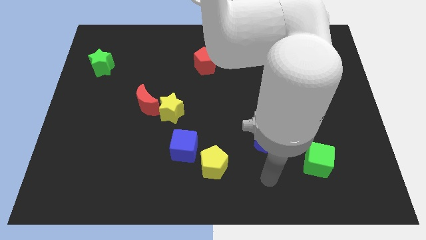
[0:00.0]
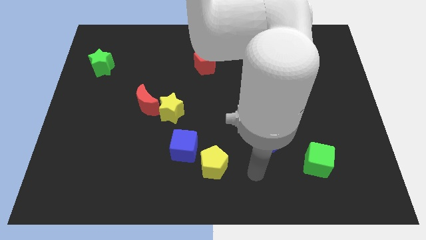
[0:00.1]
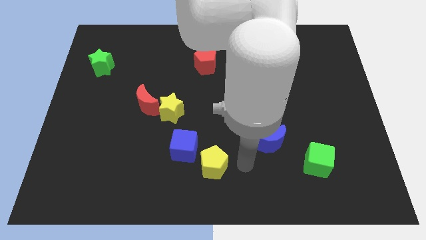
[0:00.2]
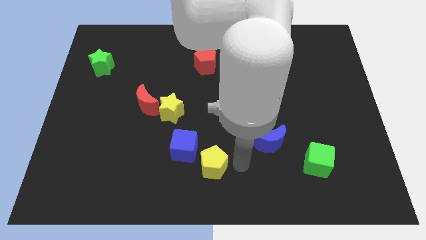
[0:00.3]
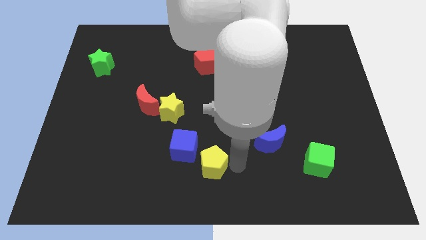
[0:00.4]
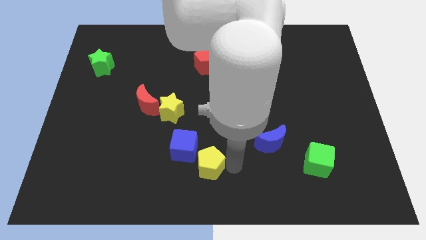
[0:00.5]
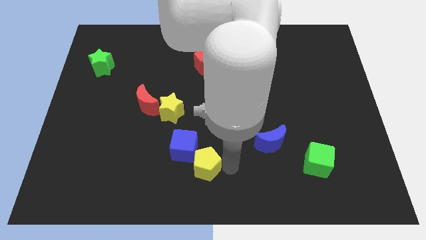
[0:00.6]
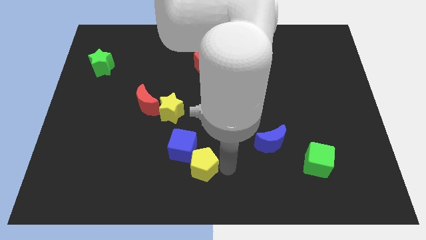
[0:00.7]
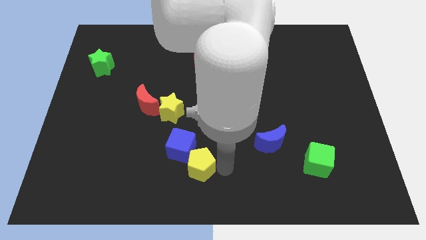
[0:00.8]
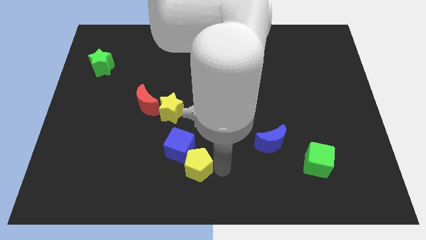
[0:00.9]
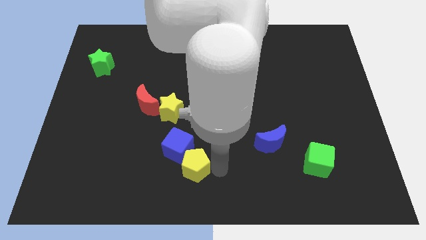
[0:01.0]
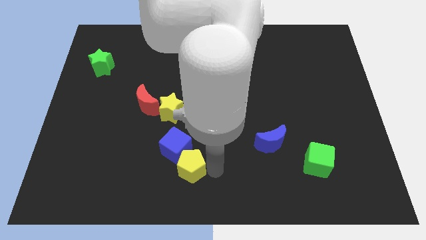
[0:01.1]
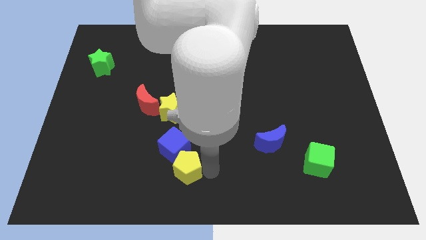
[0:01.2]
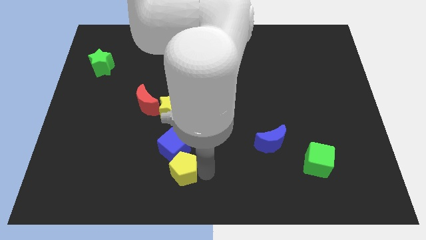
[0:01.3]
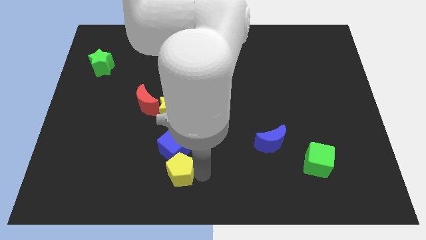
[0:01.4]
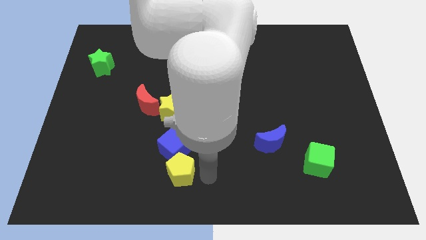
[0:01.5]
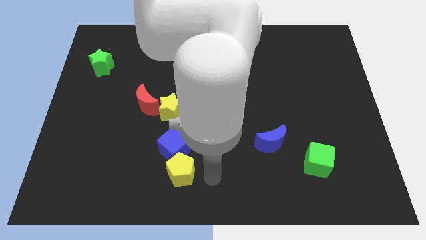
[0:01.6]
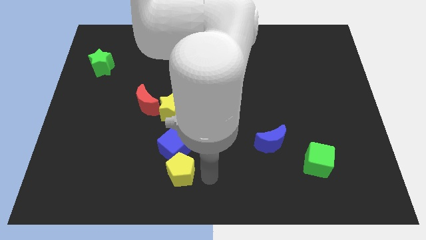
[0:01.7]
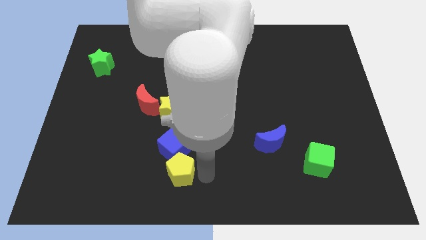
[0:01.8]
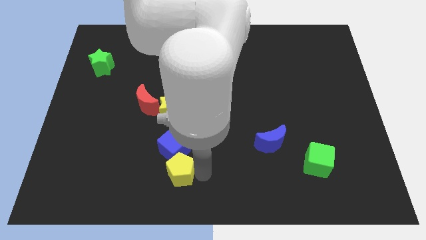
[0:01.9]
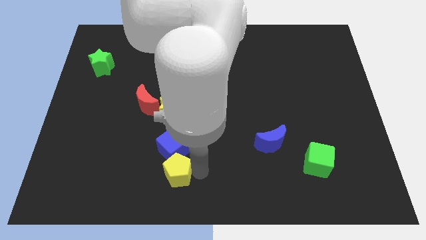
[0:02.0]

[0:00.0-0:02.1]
slightly slide the yellow pentagon left

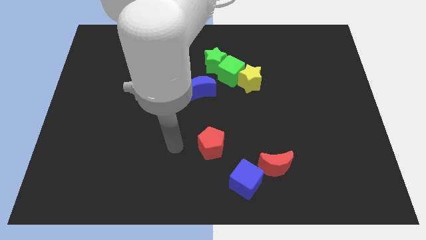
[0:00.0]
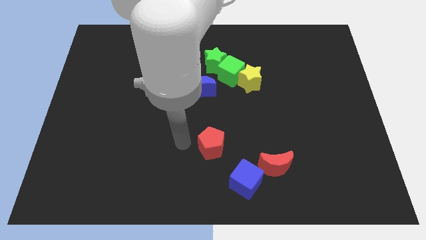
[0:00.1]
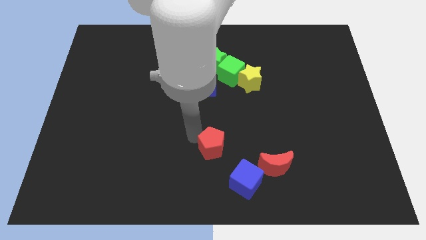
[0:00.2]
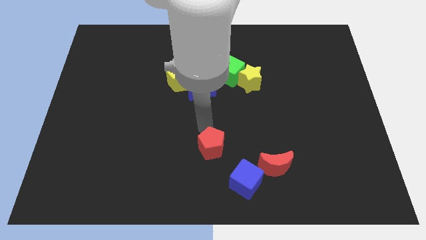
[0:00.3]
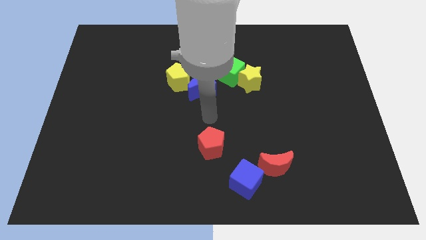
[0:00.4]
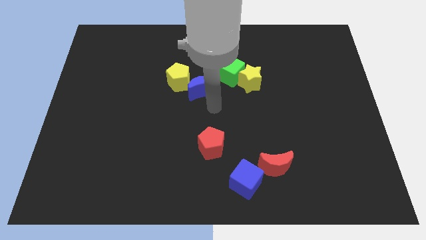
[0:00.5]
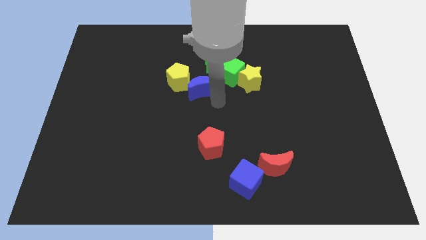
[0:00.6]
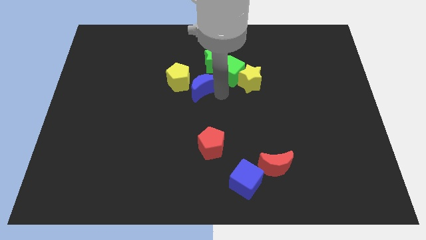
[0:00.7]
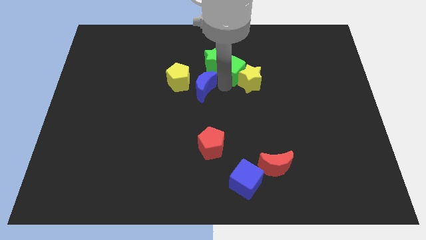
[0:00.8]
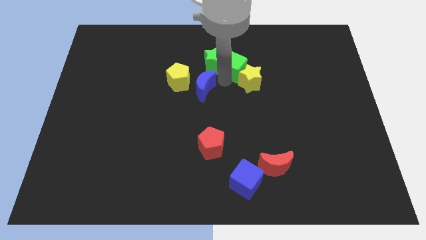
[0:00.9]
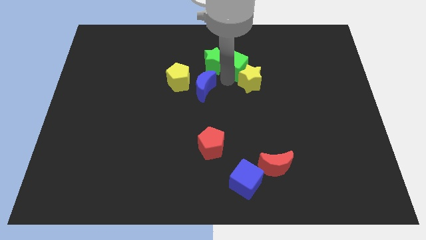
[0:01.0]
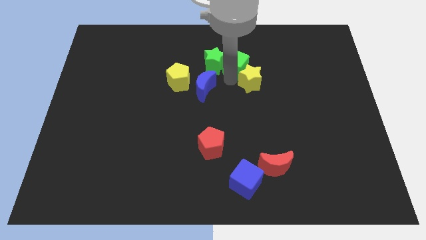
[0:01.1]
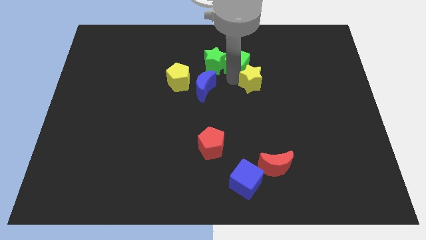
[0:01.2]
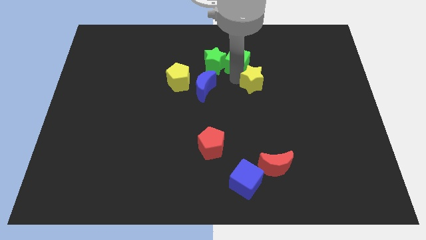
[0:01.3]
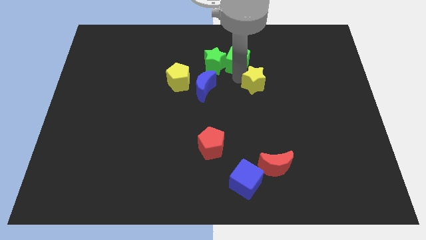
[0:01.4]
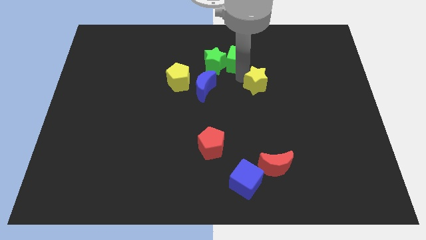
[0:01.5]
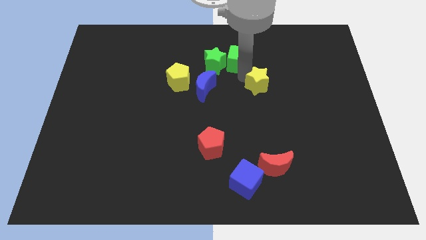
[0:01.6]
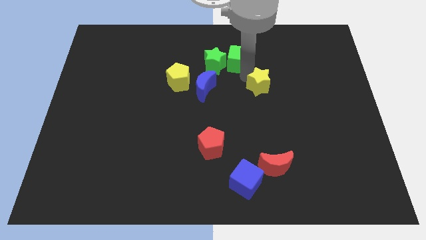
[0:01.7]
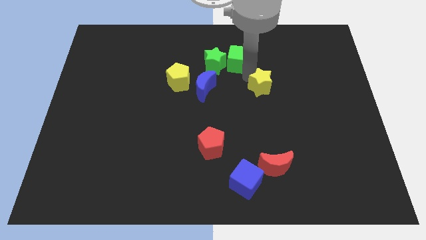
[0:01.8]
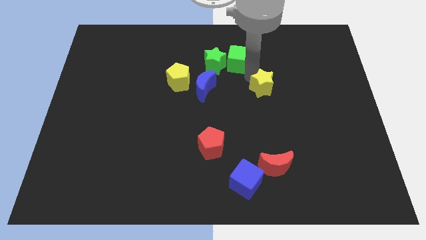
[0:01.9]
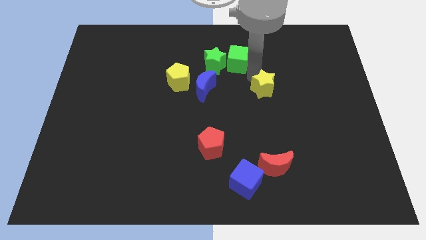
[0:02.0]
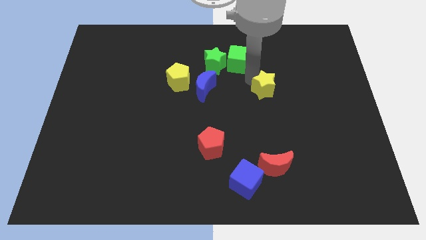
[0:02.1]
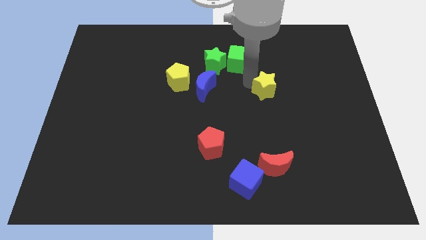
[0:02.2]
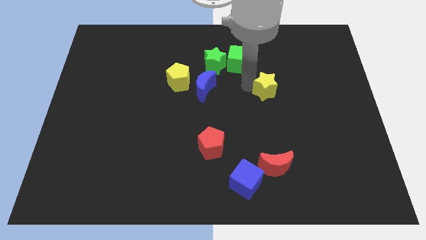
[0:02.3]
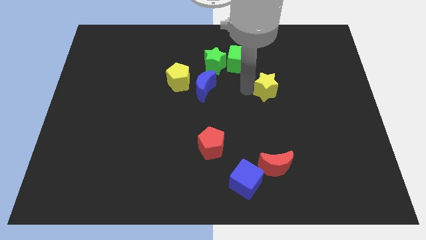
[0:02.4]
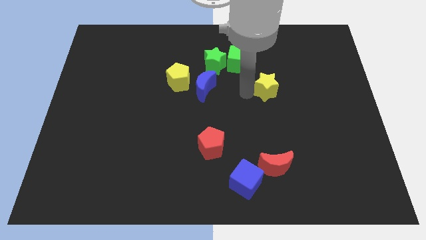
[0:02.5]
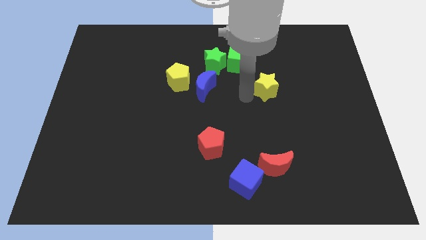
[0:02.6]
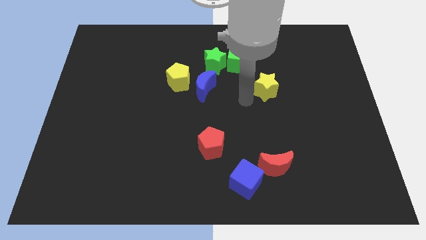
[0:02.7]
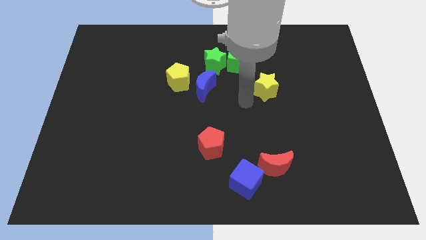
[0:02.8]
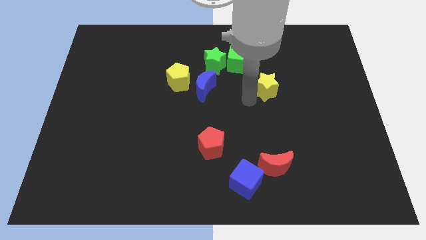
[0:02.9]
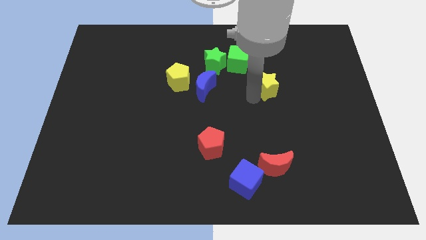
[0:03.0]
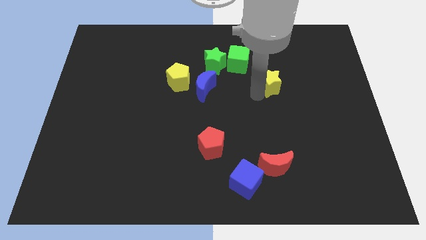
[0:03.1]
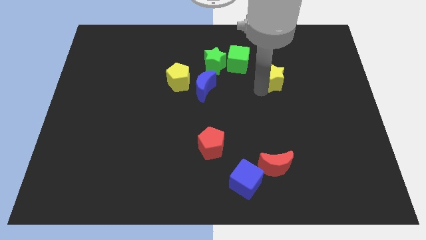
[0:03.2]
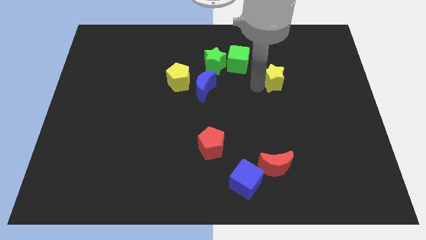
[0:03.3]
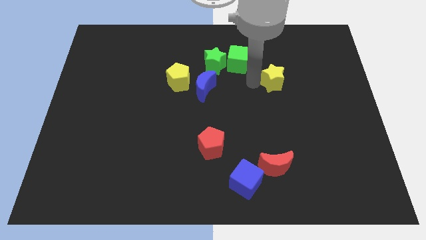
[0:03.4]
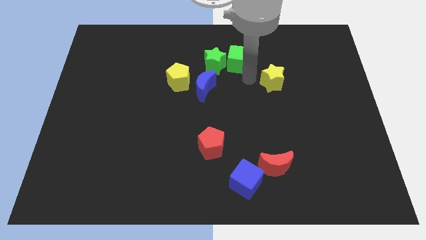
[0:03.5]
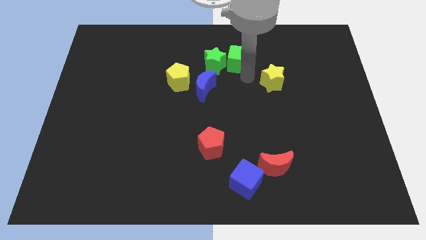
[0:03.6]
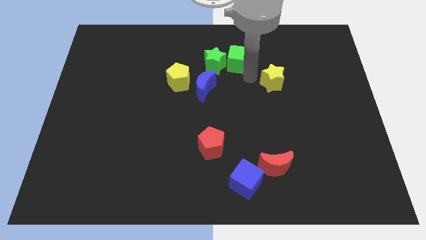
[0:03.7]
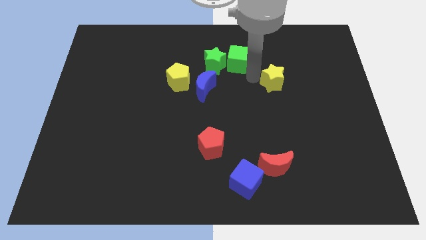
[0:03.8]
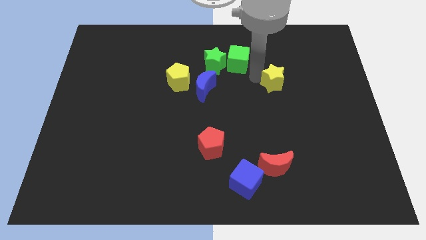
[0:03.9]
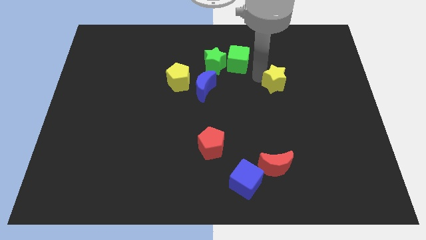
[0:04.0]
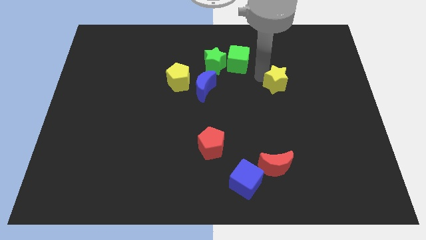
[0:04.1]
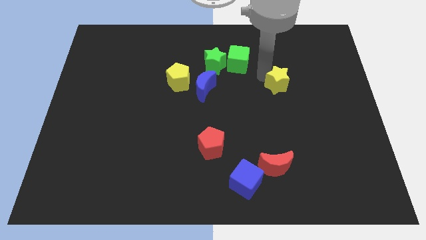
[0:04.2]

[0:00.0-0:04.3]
slightly move the yellow star to the right

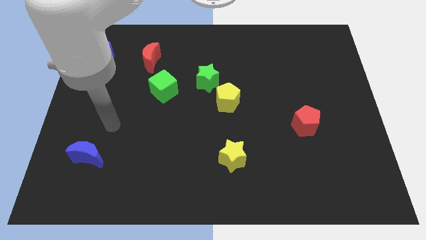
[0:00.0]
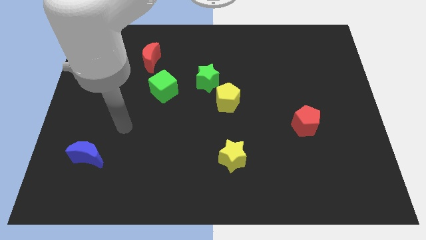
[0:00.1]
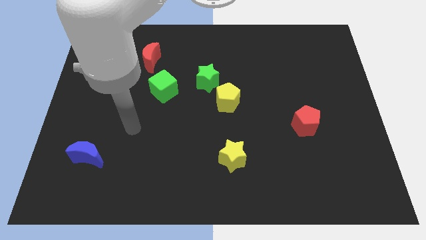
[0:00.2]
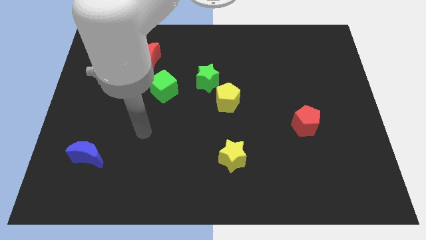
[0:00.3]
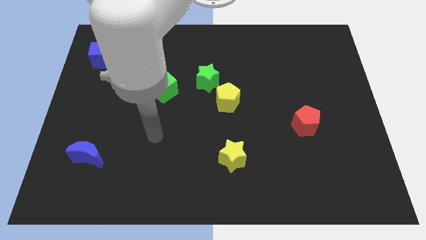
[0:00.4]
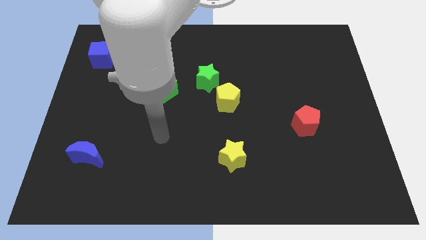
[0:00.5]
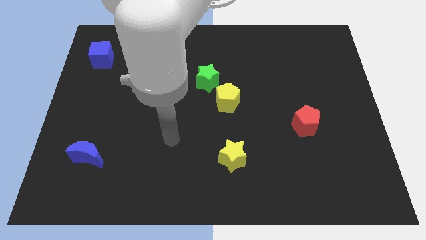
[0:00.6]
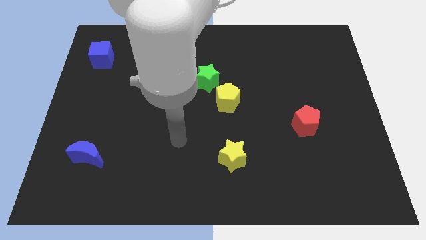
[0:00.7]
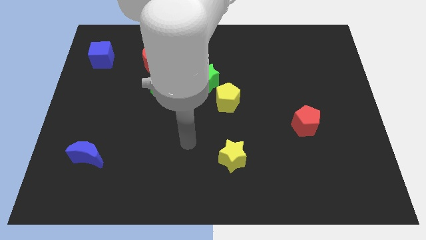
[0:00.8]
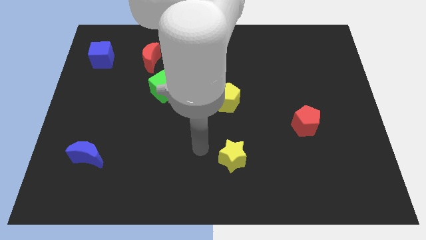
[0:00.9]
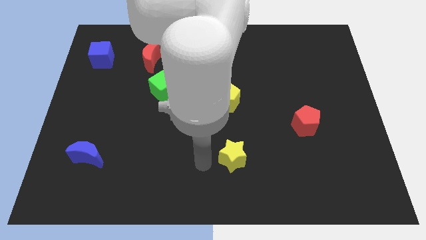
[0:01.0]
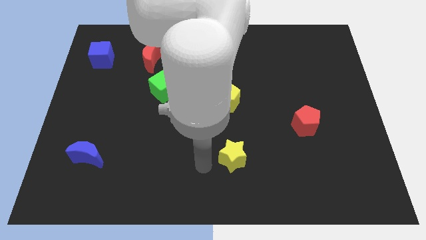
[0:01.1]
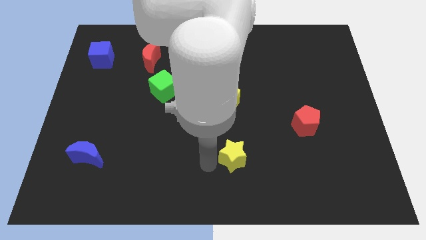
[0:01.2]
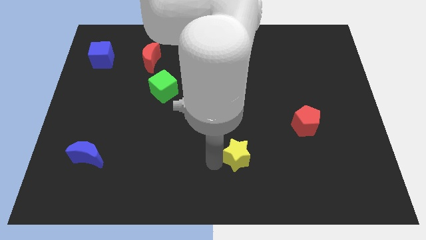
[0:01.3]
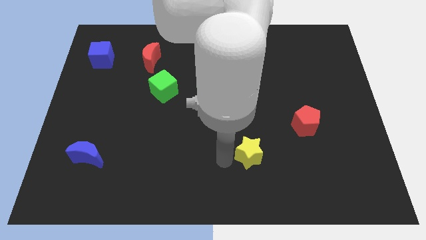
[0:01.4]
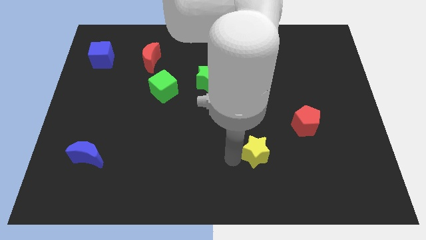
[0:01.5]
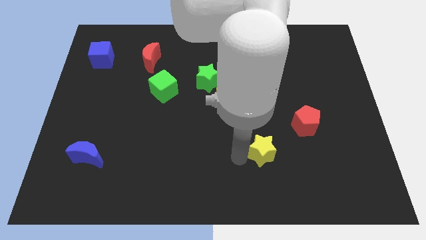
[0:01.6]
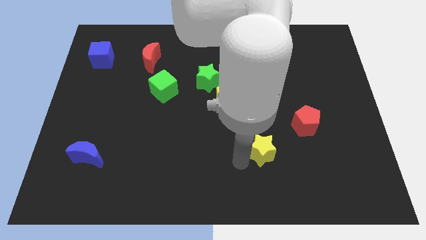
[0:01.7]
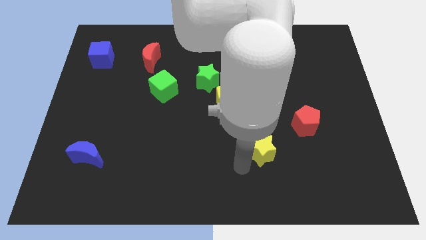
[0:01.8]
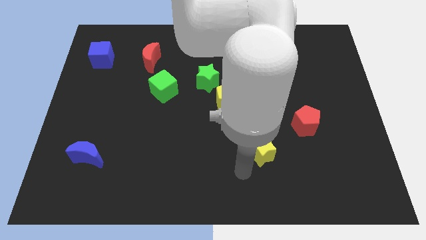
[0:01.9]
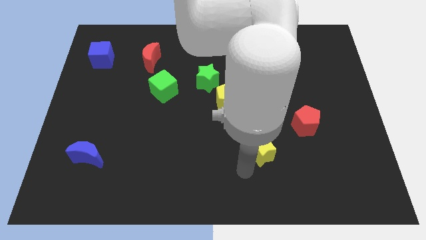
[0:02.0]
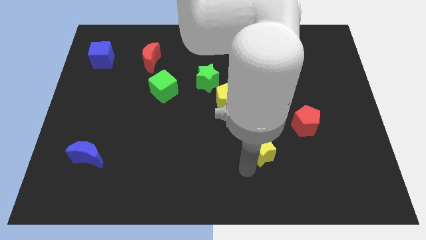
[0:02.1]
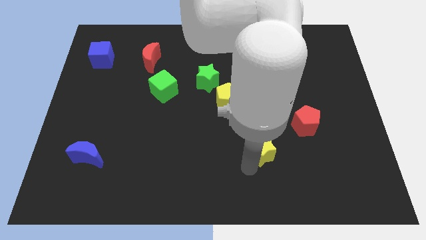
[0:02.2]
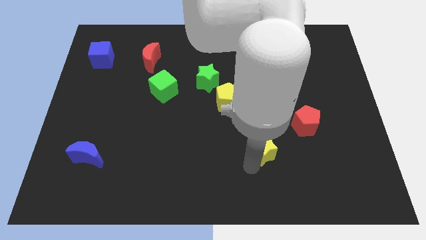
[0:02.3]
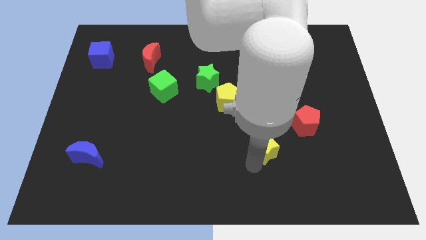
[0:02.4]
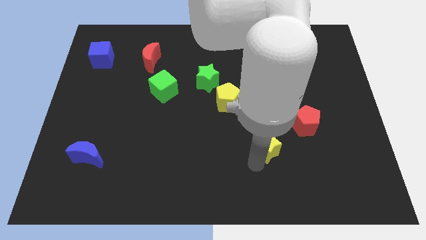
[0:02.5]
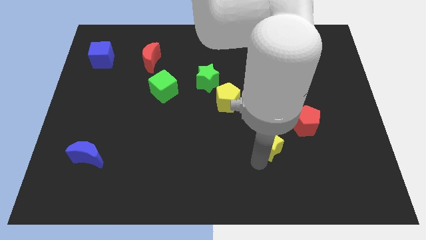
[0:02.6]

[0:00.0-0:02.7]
push the yellow star diagonally upwards and to the right somewhat
